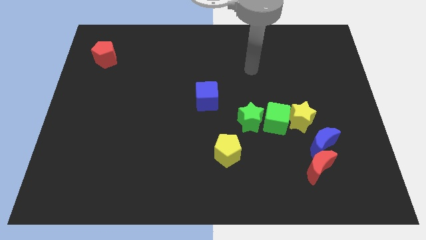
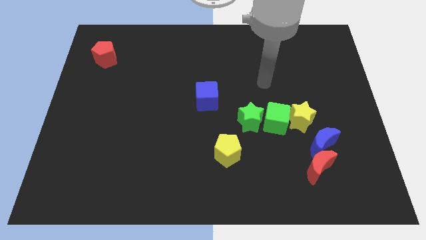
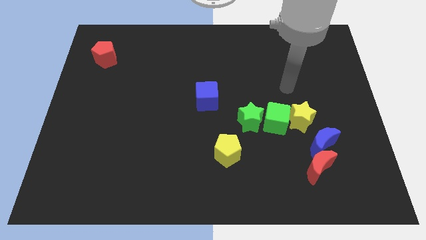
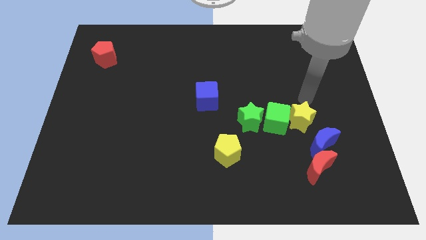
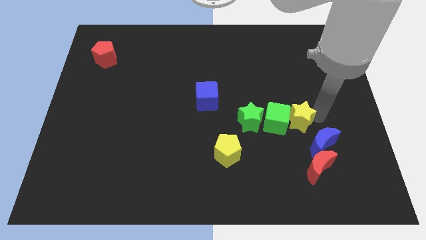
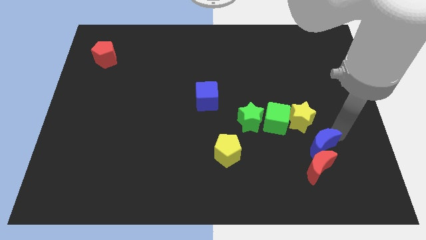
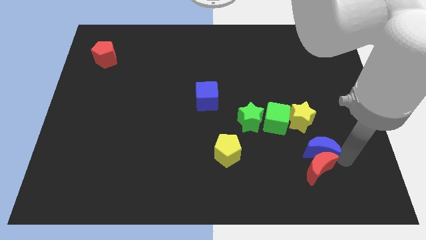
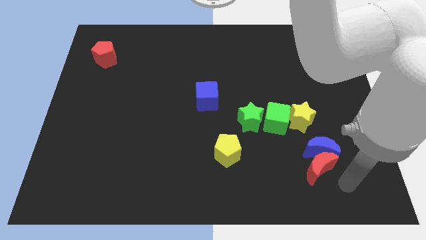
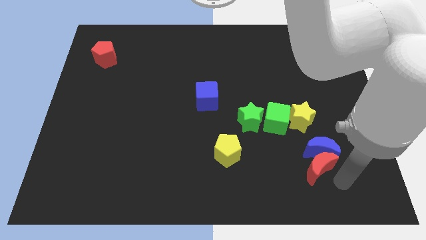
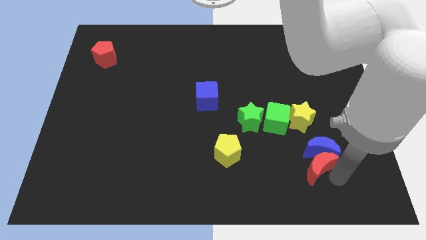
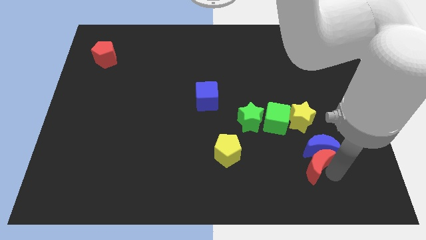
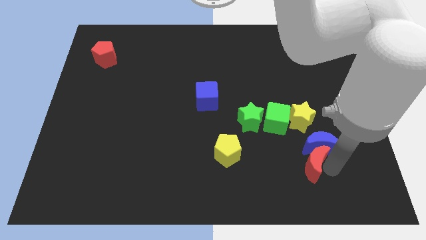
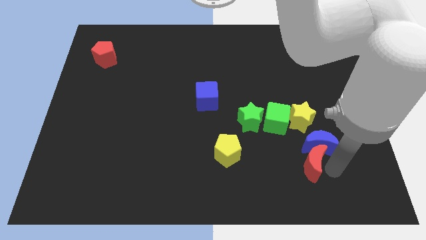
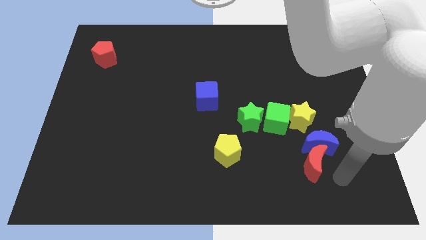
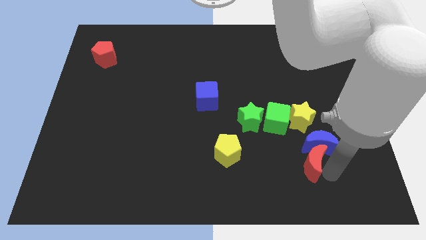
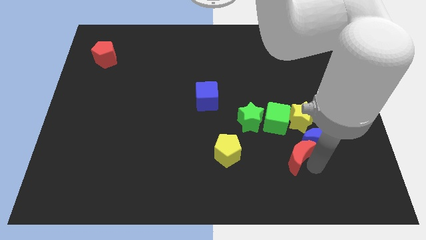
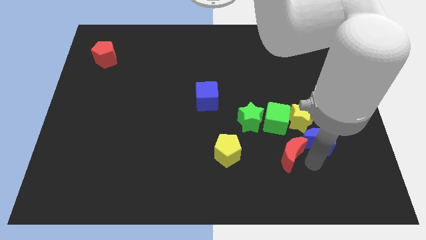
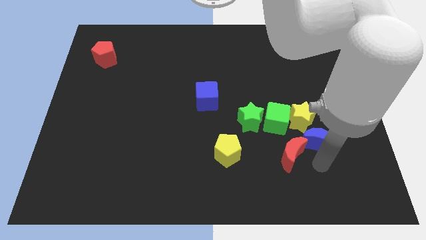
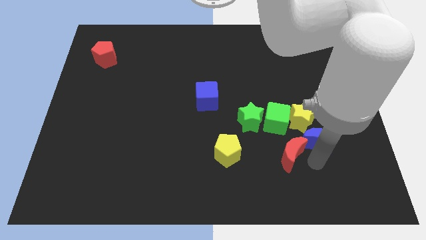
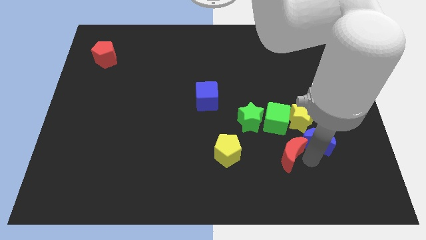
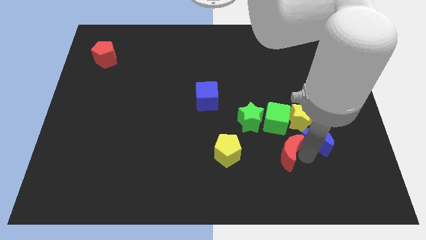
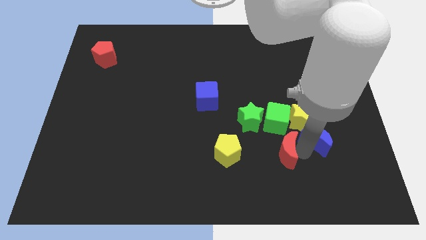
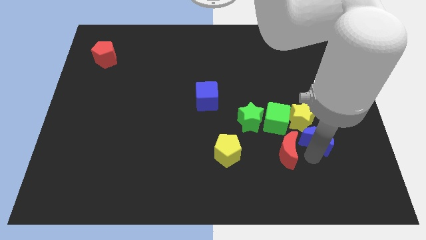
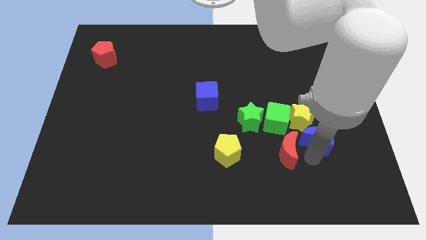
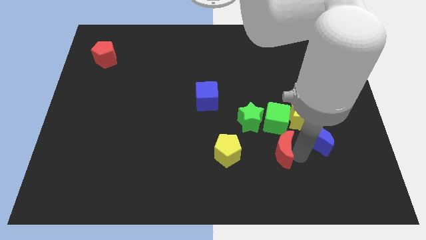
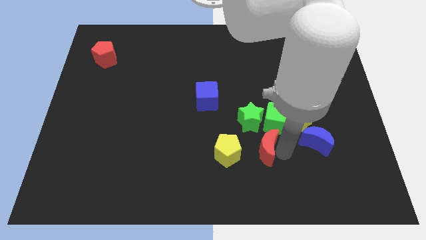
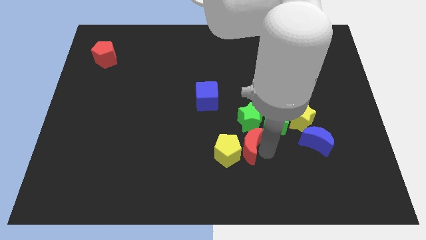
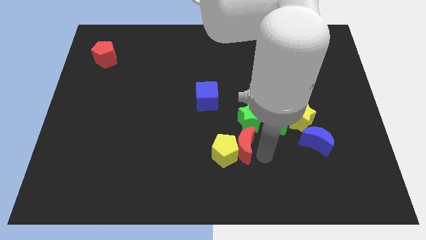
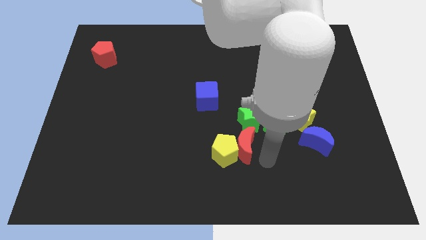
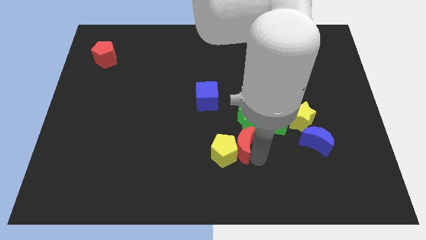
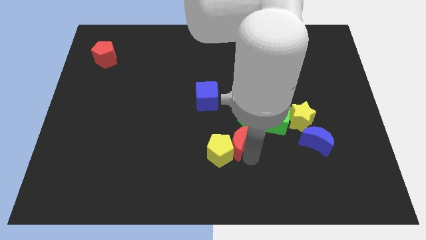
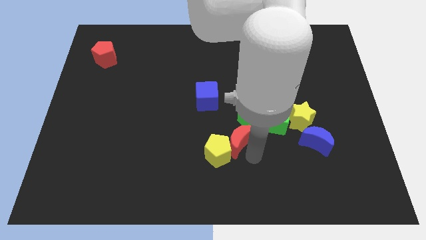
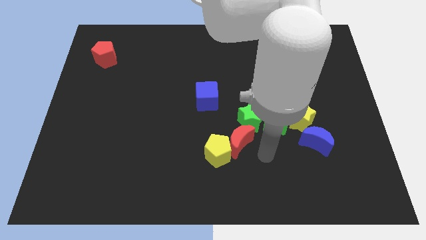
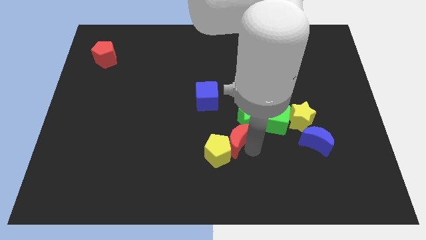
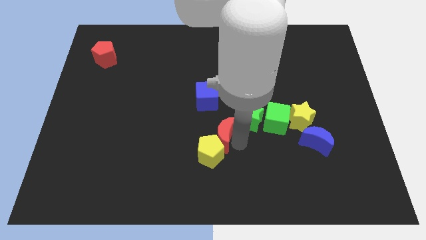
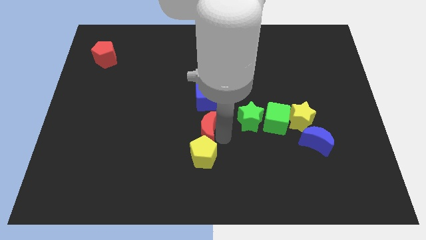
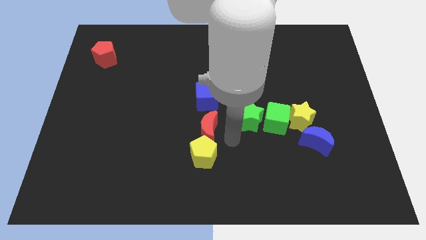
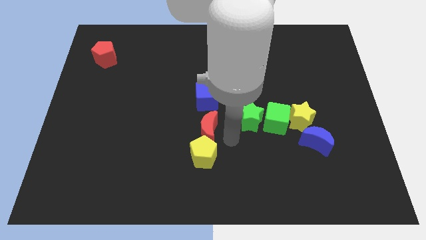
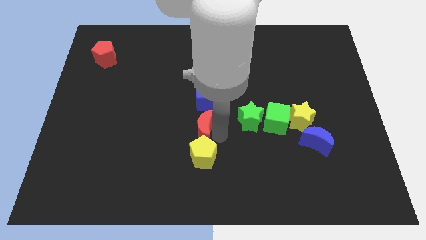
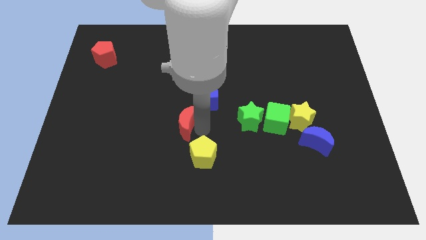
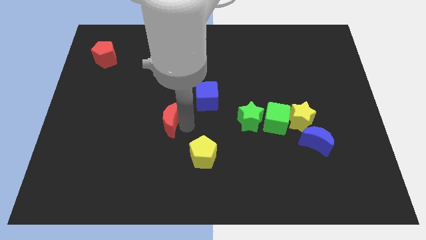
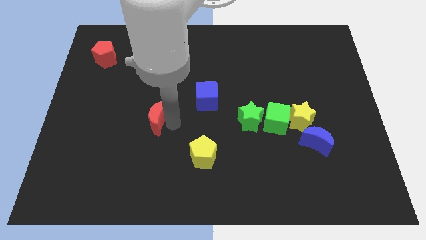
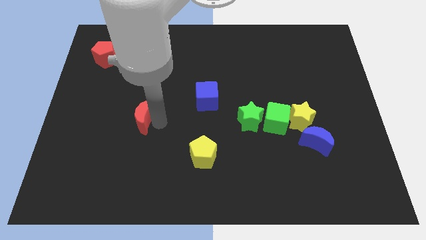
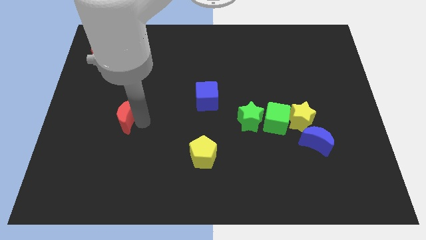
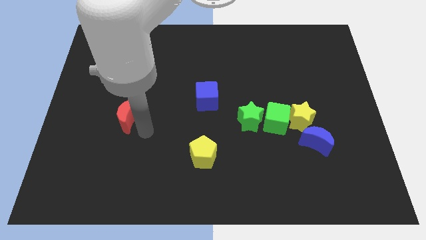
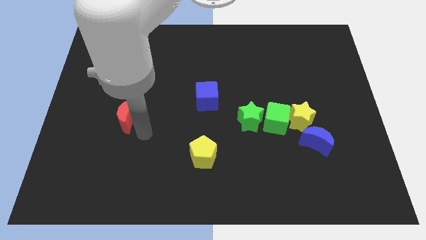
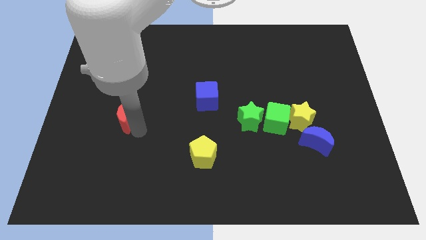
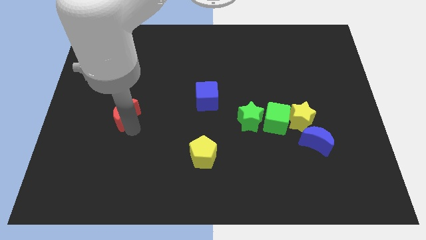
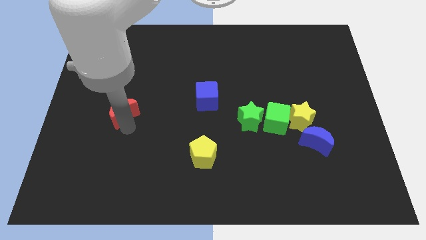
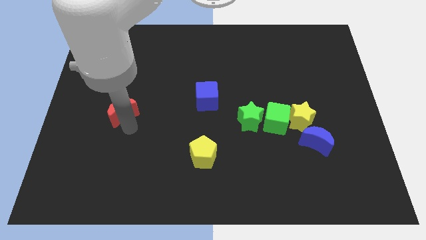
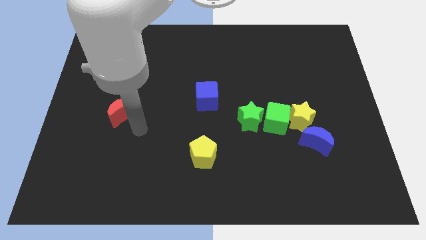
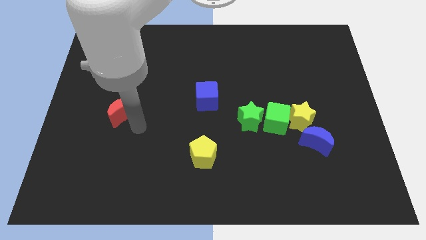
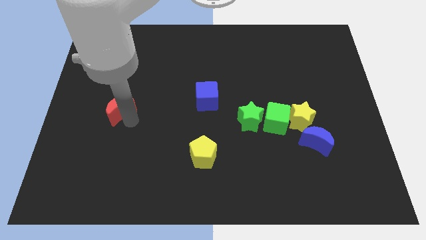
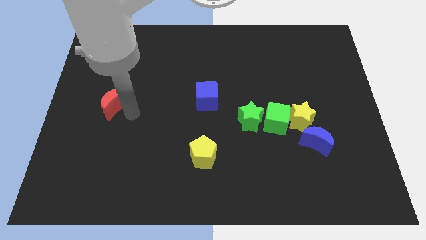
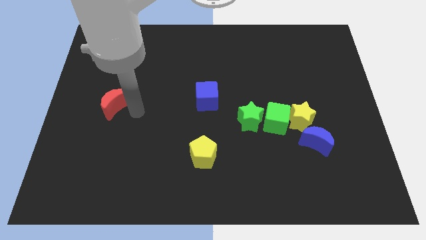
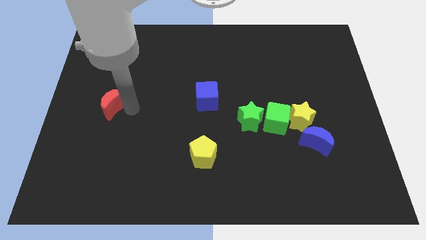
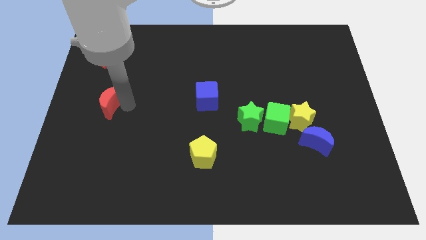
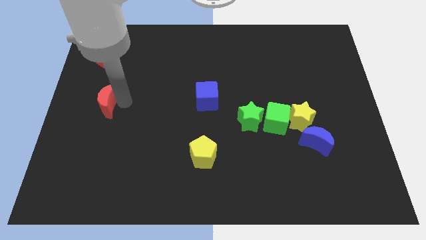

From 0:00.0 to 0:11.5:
push the red moon to the center left
